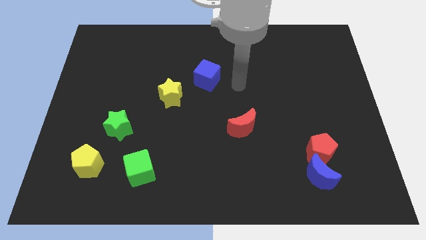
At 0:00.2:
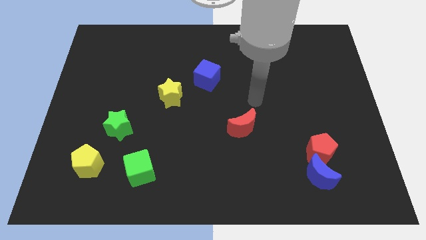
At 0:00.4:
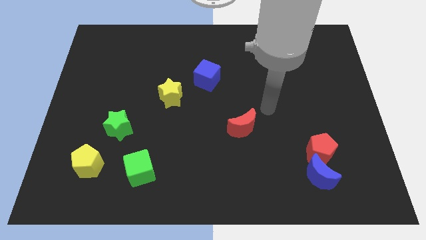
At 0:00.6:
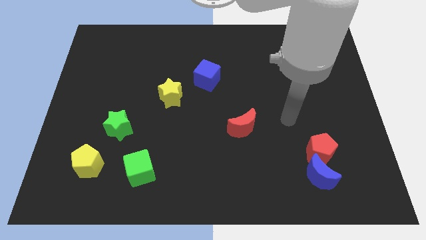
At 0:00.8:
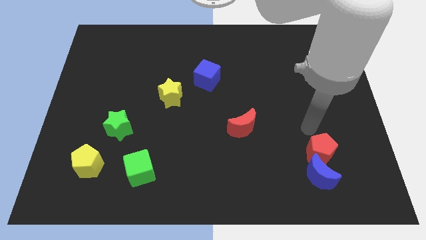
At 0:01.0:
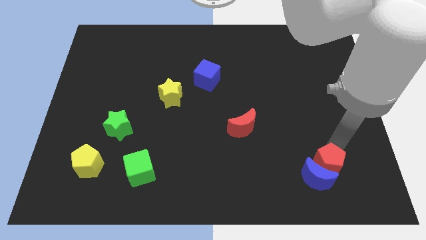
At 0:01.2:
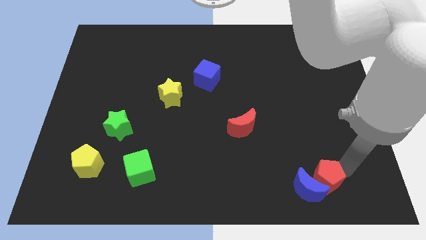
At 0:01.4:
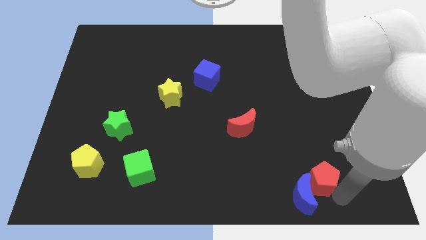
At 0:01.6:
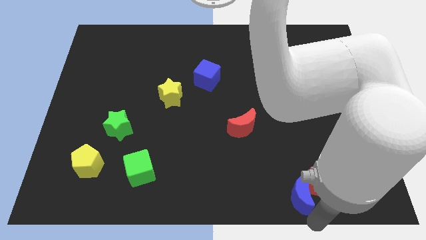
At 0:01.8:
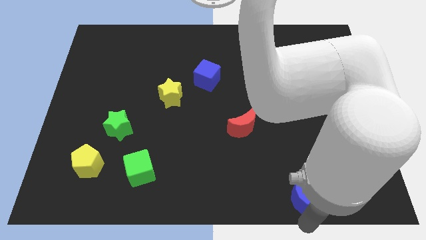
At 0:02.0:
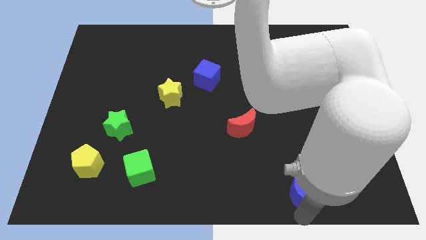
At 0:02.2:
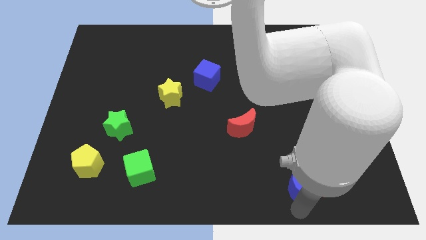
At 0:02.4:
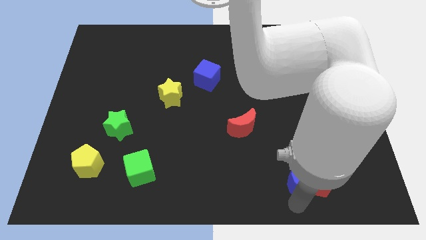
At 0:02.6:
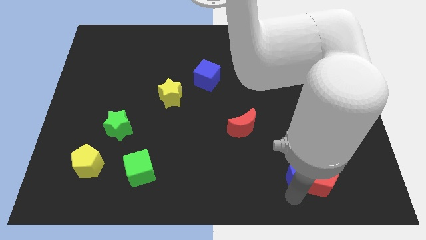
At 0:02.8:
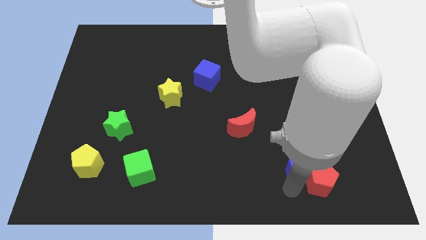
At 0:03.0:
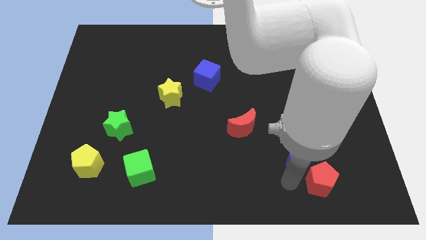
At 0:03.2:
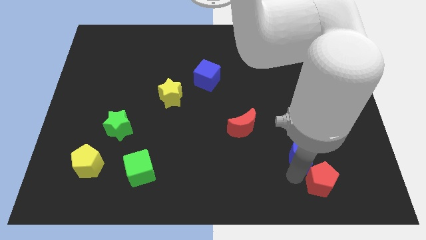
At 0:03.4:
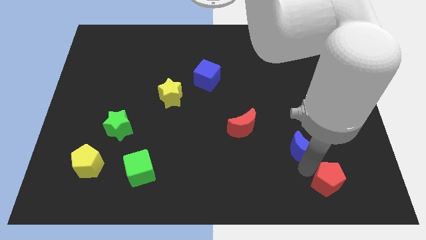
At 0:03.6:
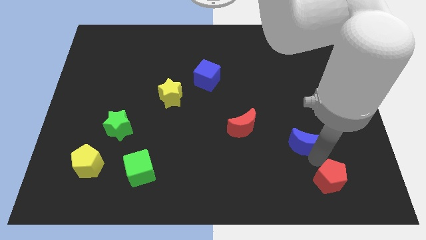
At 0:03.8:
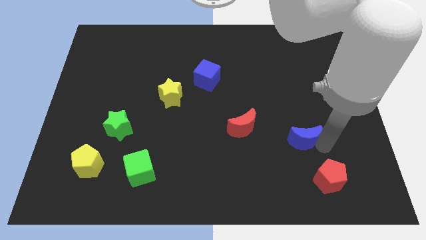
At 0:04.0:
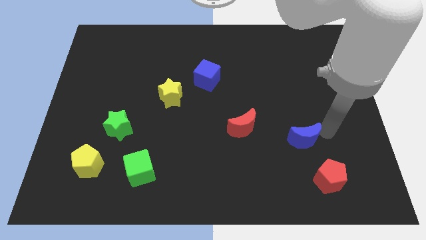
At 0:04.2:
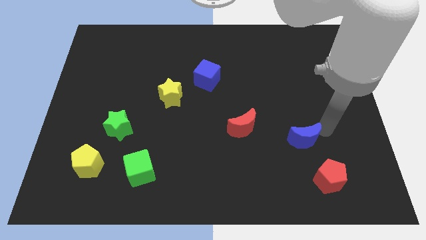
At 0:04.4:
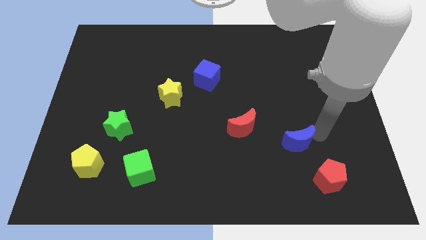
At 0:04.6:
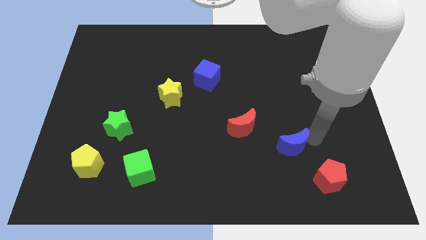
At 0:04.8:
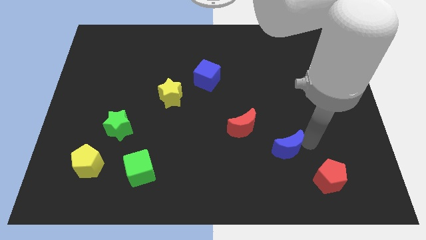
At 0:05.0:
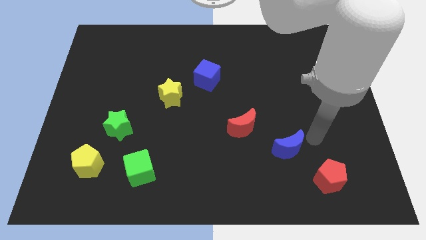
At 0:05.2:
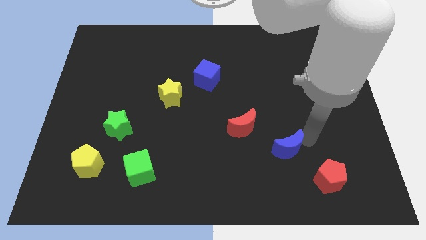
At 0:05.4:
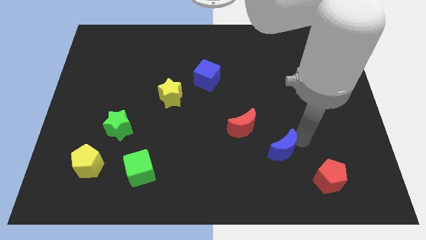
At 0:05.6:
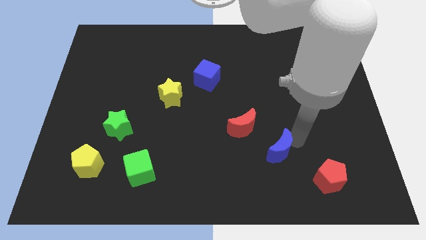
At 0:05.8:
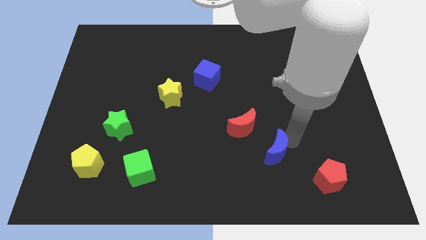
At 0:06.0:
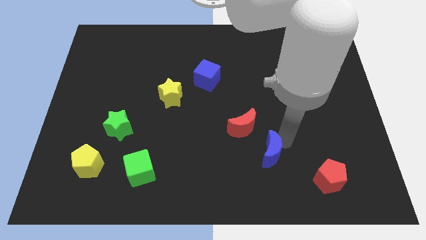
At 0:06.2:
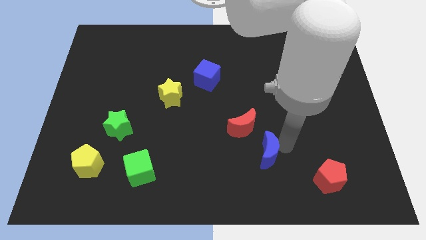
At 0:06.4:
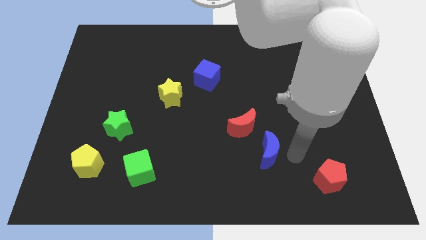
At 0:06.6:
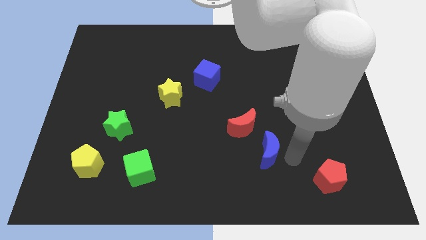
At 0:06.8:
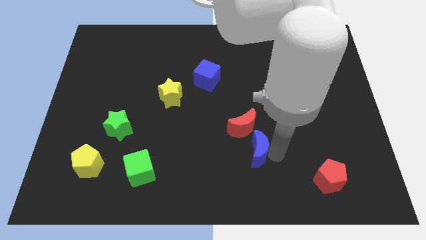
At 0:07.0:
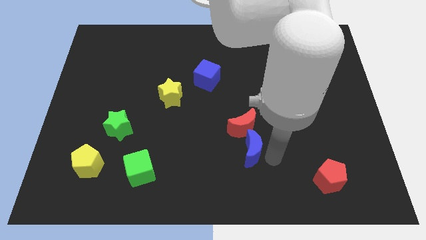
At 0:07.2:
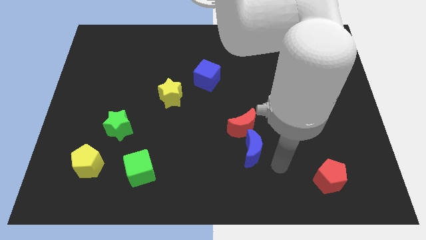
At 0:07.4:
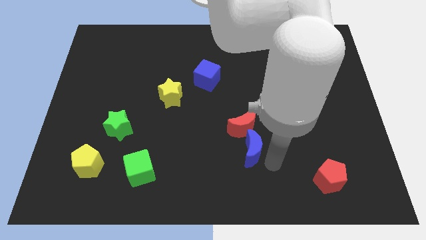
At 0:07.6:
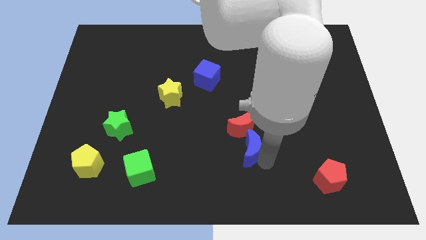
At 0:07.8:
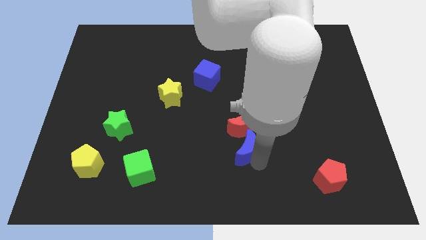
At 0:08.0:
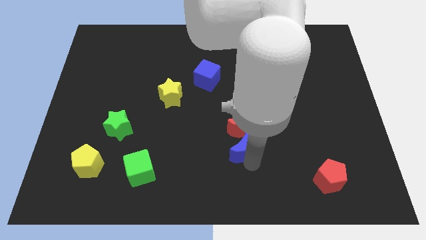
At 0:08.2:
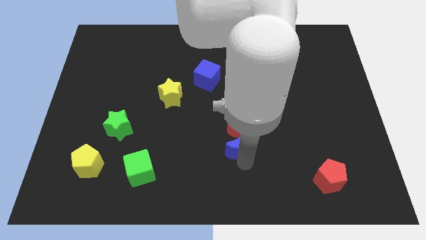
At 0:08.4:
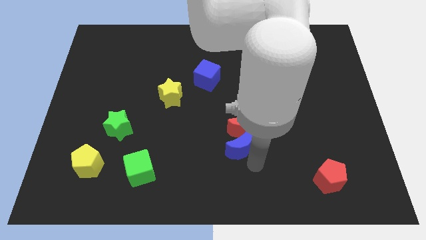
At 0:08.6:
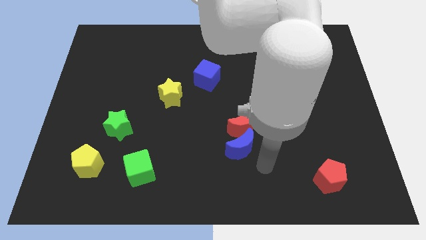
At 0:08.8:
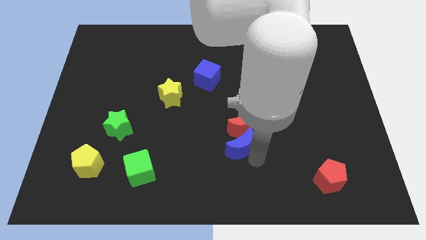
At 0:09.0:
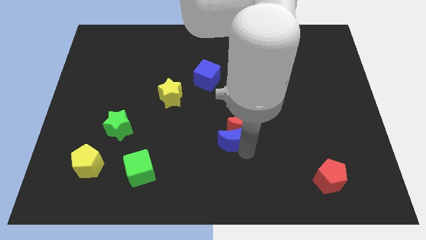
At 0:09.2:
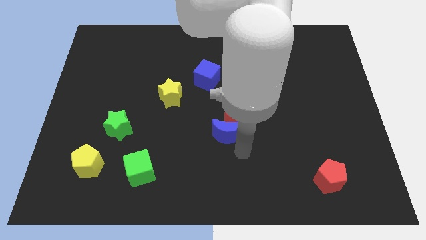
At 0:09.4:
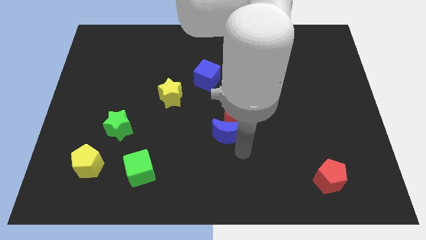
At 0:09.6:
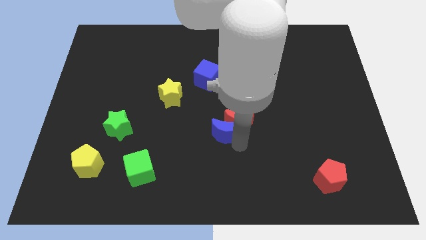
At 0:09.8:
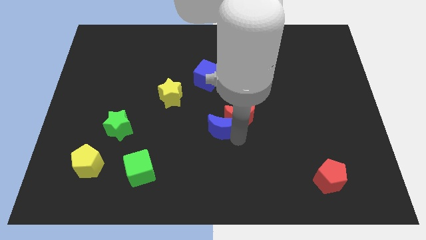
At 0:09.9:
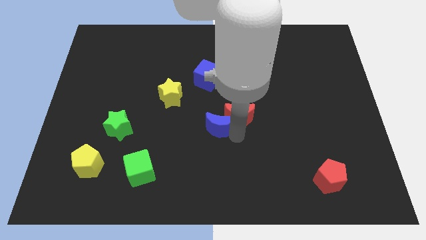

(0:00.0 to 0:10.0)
slide the blue moon to the bottom of the blue cube

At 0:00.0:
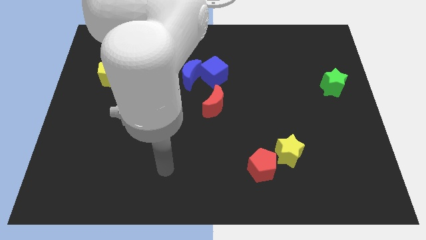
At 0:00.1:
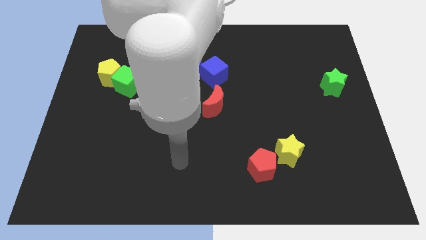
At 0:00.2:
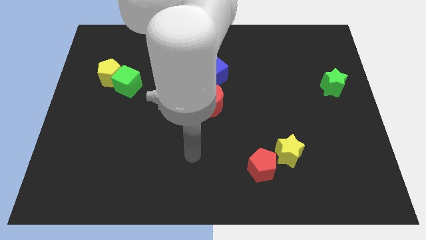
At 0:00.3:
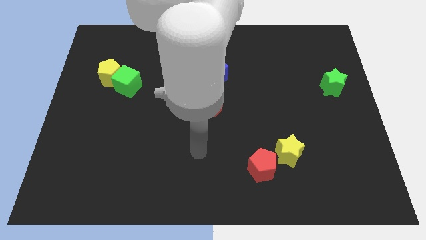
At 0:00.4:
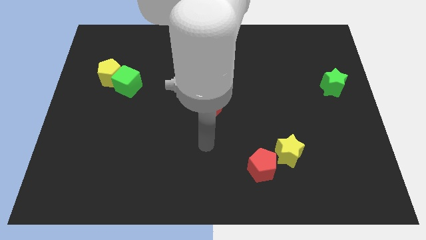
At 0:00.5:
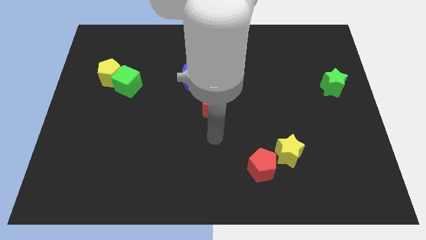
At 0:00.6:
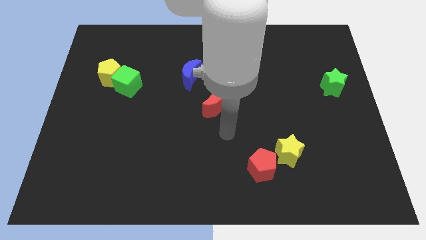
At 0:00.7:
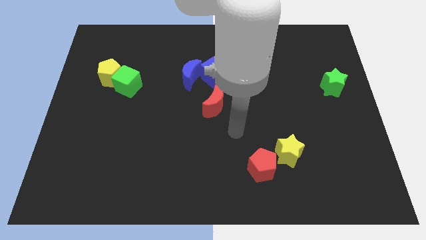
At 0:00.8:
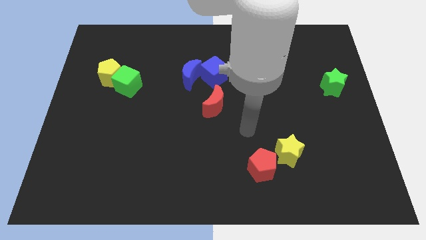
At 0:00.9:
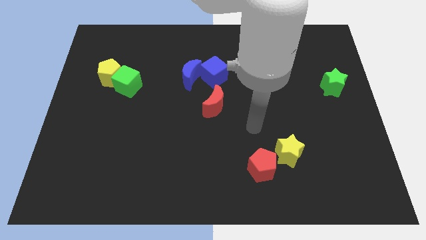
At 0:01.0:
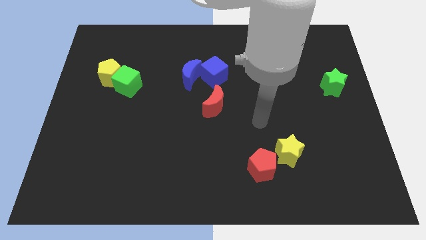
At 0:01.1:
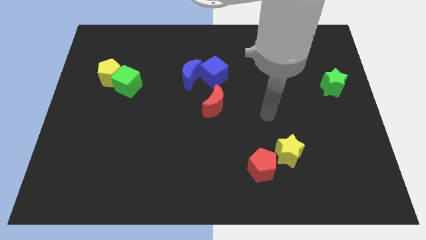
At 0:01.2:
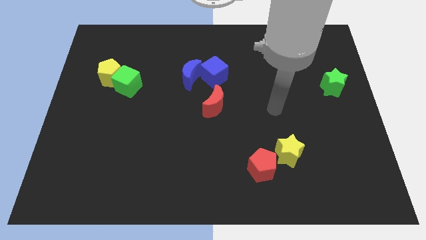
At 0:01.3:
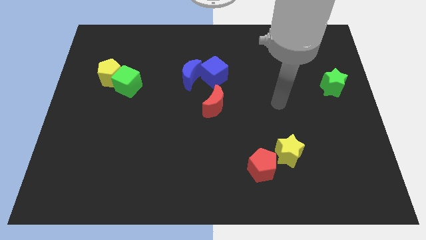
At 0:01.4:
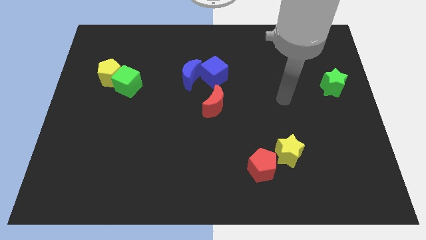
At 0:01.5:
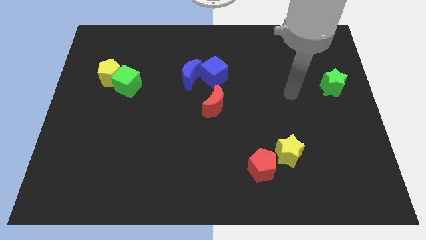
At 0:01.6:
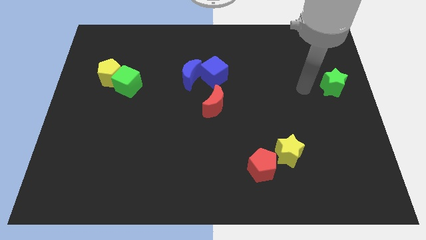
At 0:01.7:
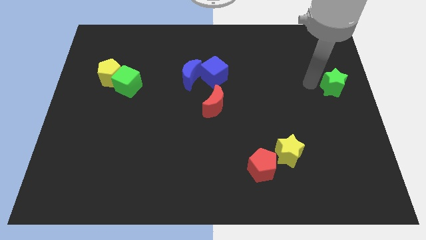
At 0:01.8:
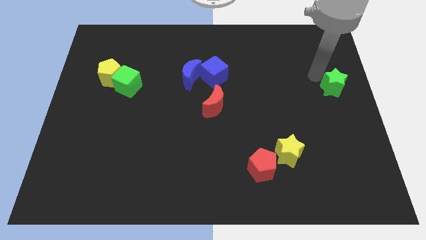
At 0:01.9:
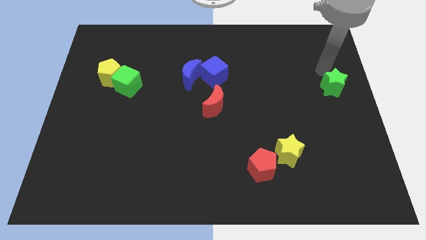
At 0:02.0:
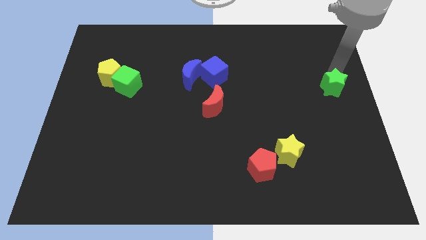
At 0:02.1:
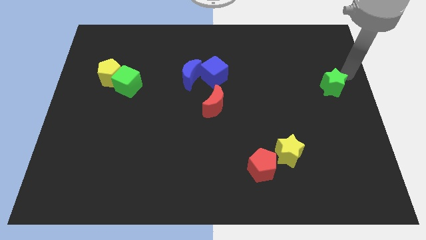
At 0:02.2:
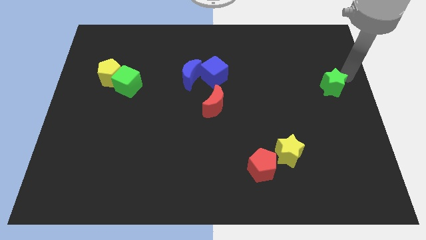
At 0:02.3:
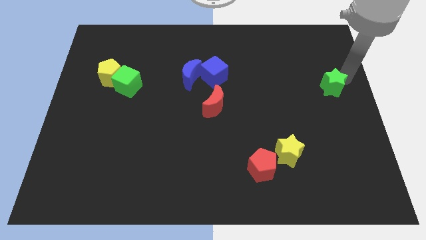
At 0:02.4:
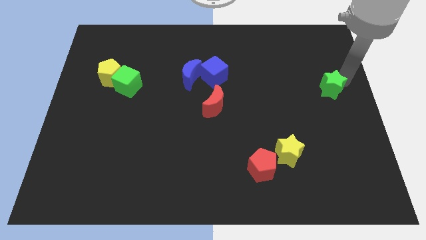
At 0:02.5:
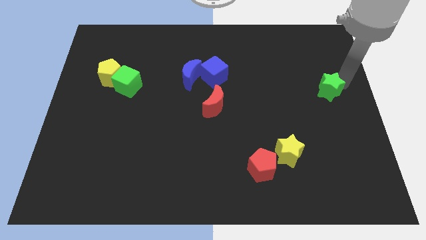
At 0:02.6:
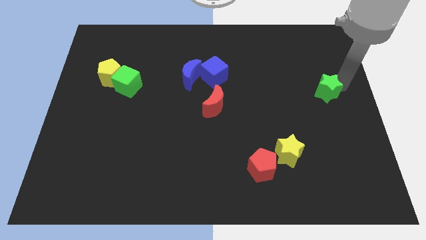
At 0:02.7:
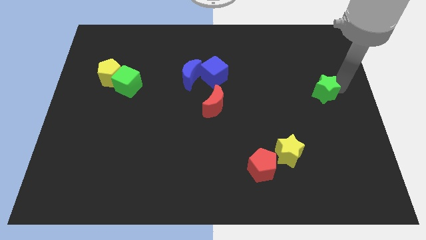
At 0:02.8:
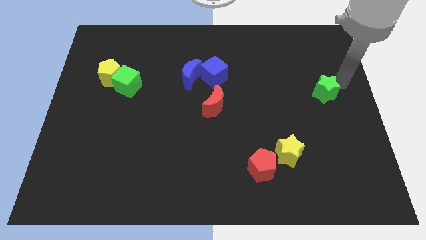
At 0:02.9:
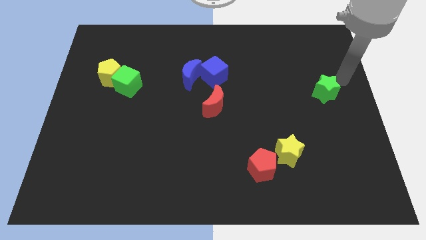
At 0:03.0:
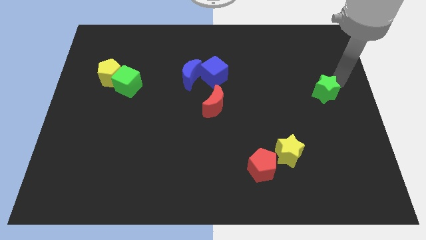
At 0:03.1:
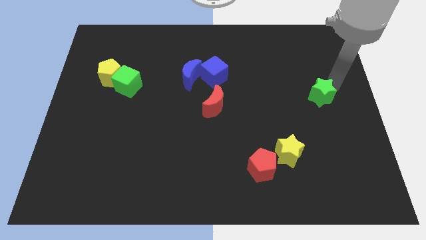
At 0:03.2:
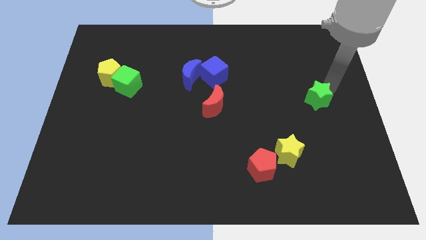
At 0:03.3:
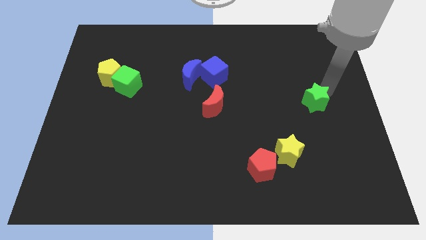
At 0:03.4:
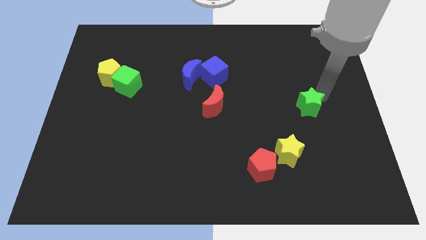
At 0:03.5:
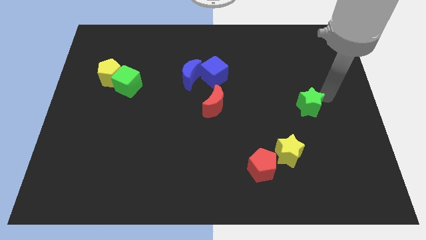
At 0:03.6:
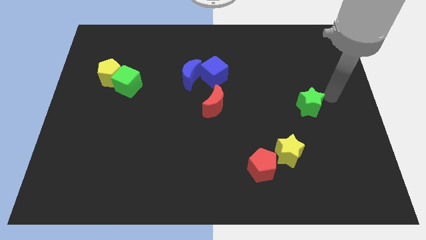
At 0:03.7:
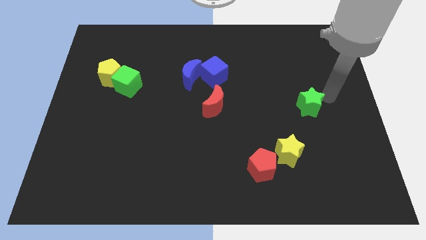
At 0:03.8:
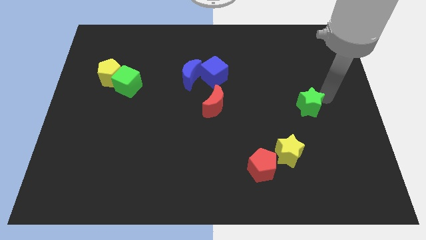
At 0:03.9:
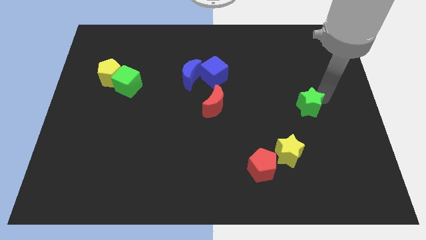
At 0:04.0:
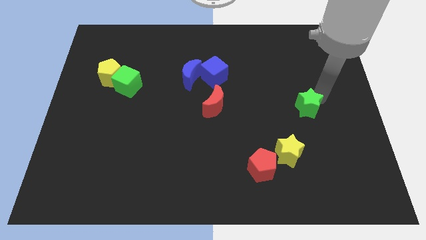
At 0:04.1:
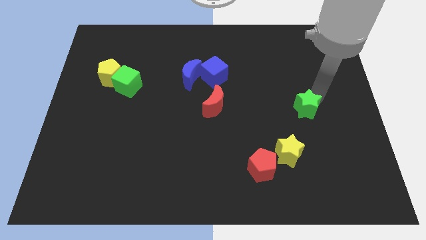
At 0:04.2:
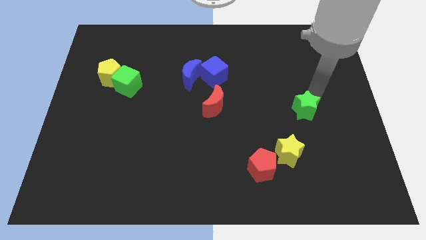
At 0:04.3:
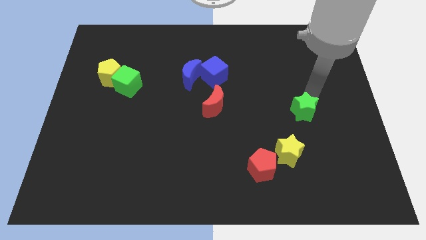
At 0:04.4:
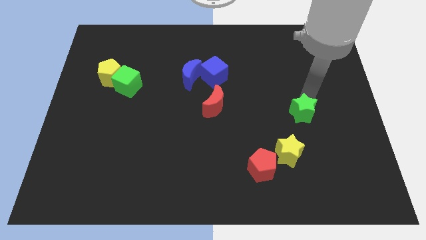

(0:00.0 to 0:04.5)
push the green star to the top side of the yellow star
